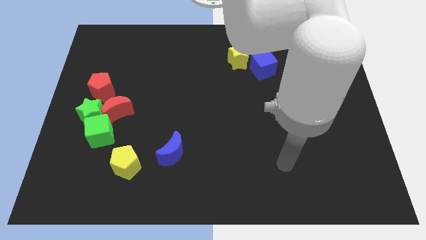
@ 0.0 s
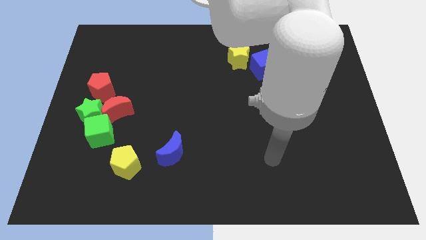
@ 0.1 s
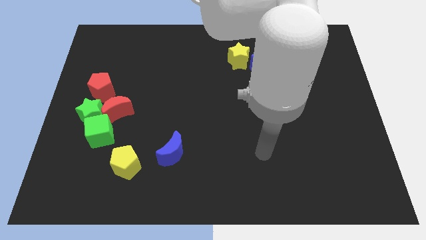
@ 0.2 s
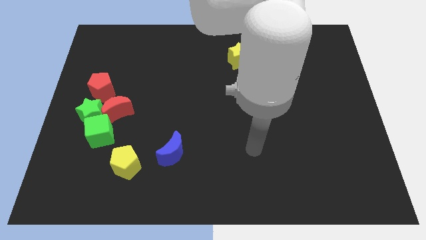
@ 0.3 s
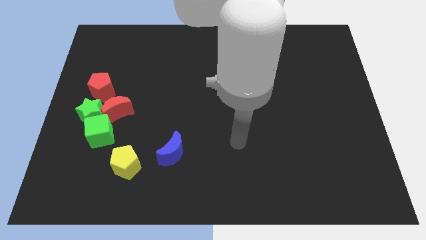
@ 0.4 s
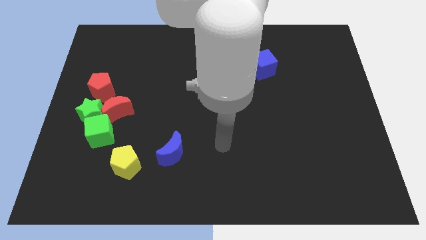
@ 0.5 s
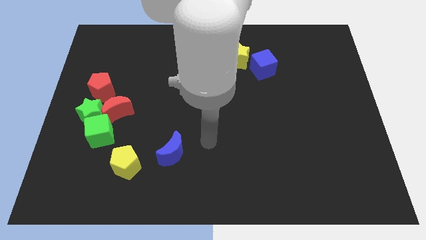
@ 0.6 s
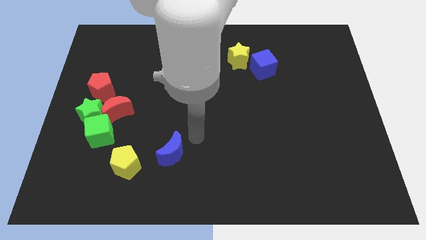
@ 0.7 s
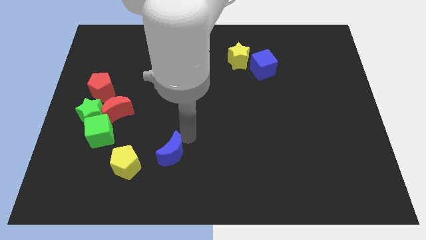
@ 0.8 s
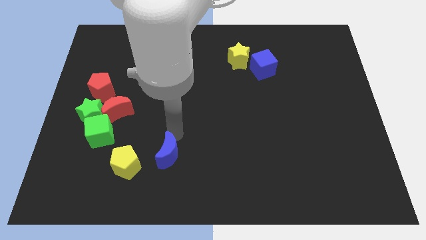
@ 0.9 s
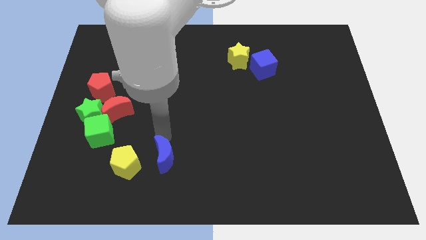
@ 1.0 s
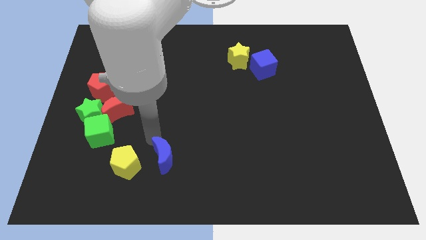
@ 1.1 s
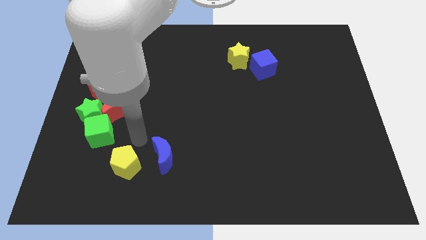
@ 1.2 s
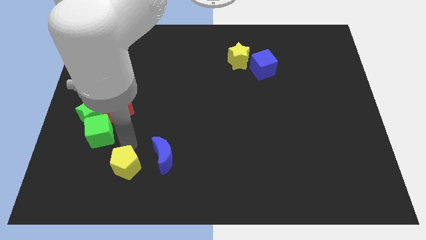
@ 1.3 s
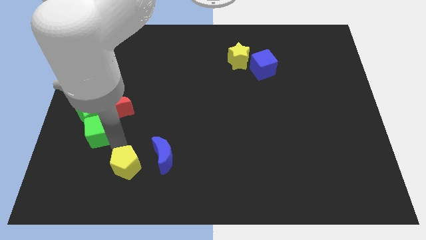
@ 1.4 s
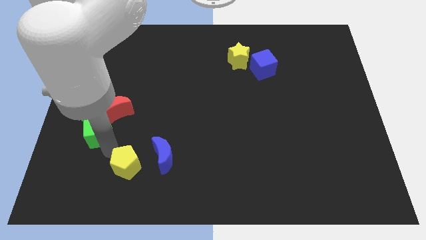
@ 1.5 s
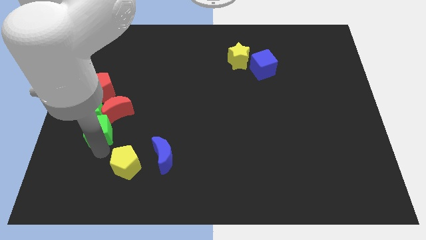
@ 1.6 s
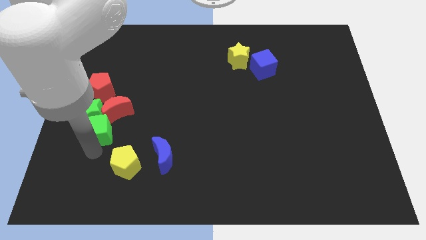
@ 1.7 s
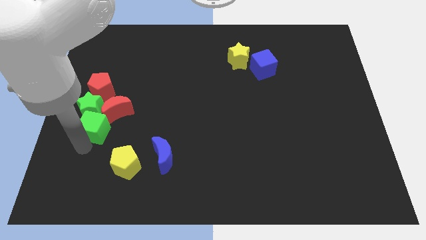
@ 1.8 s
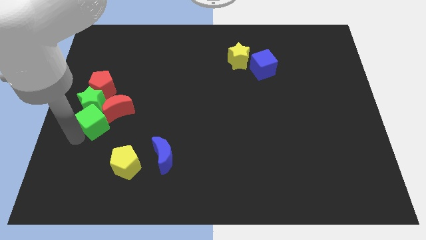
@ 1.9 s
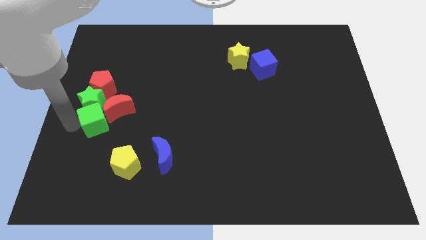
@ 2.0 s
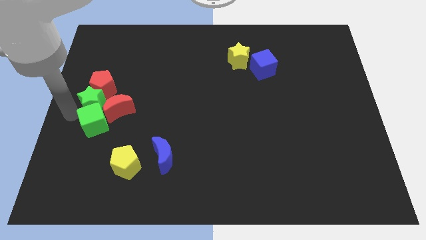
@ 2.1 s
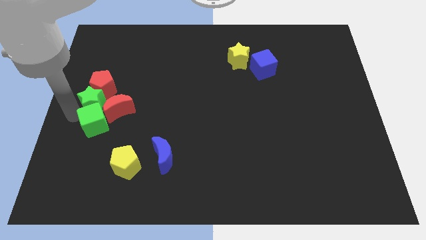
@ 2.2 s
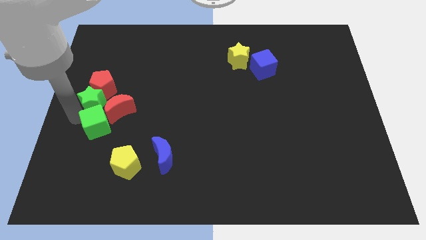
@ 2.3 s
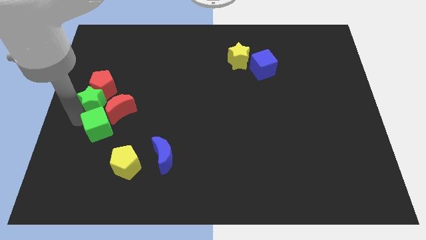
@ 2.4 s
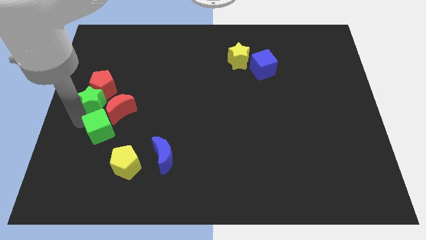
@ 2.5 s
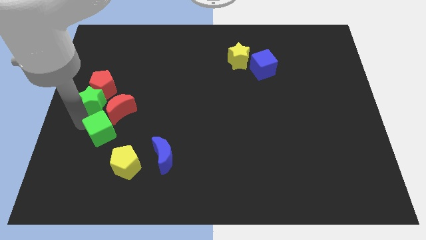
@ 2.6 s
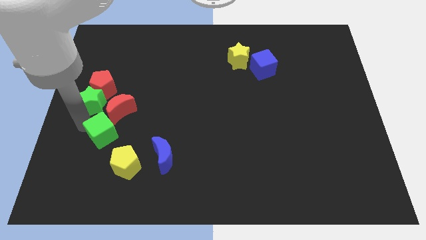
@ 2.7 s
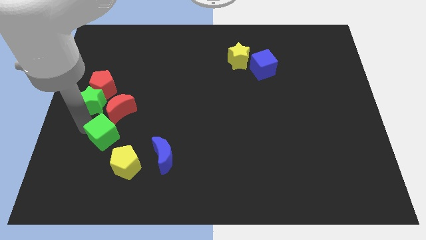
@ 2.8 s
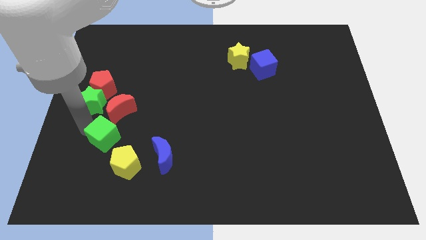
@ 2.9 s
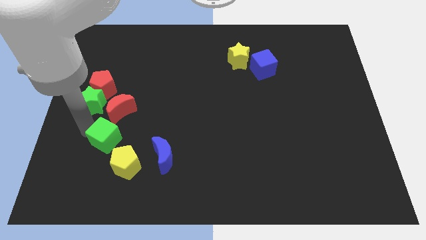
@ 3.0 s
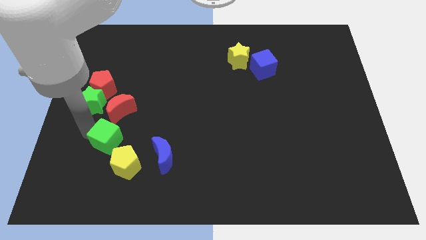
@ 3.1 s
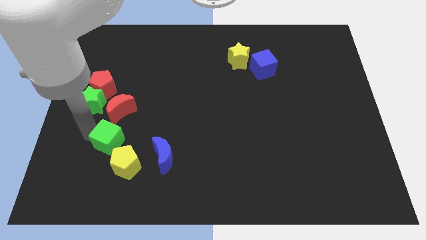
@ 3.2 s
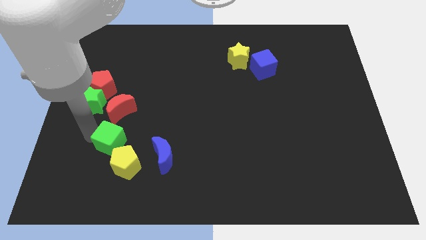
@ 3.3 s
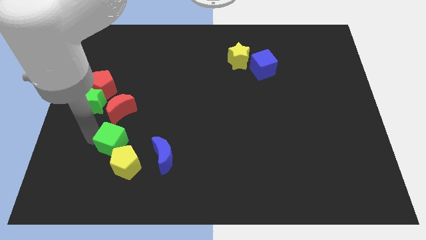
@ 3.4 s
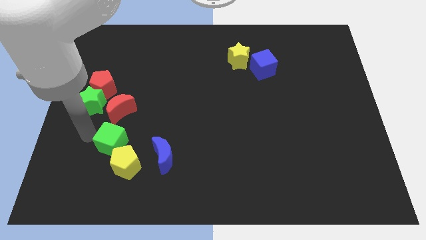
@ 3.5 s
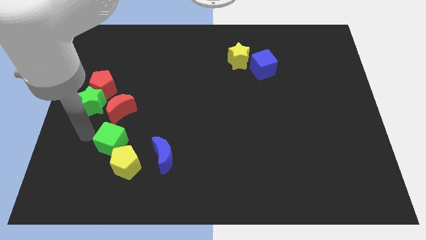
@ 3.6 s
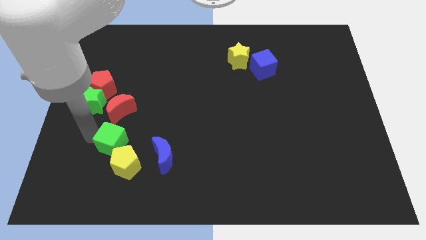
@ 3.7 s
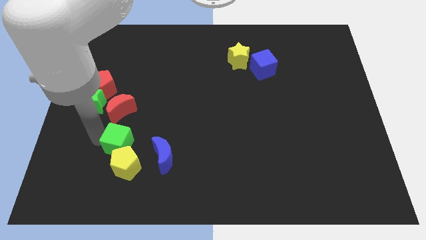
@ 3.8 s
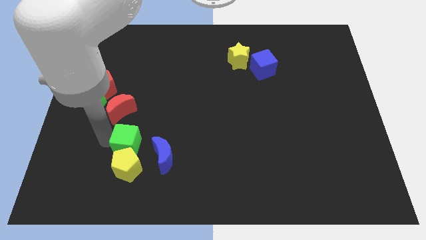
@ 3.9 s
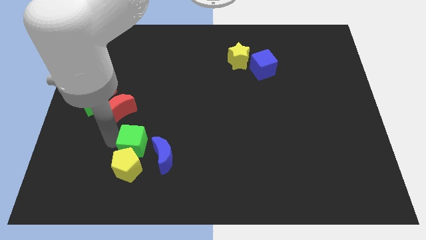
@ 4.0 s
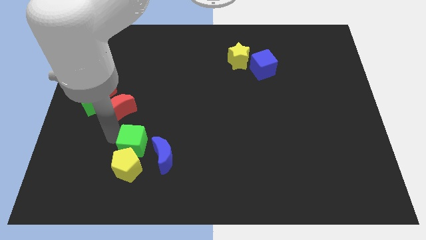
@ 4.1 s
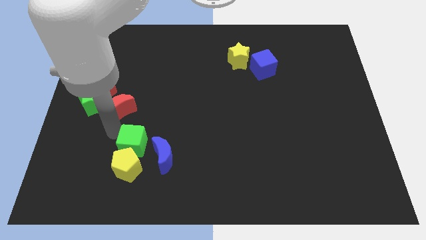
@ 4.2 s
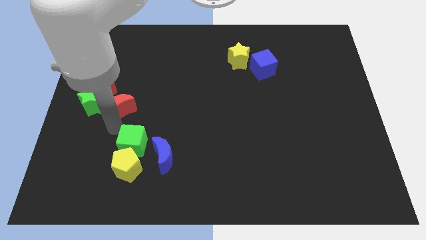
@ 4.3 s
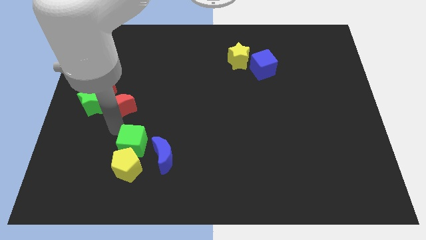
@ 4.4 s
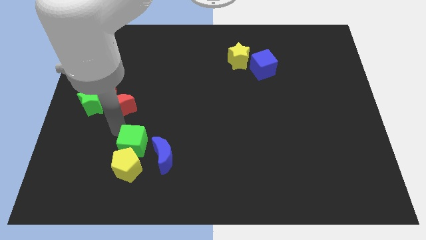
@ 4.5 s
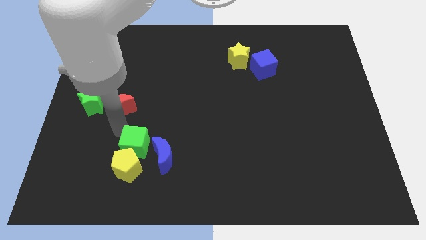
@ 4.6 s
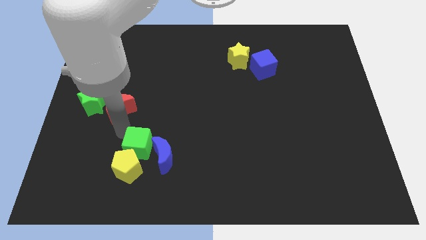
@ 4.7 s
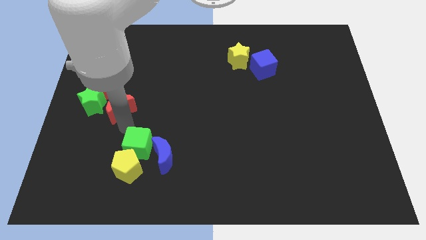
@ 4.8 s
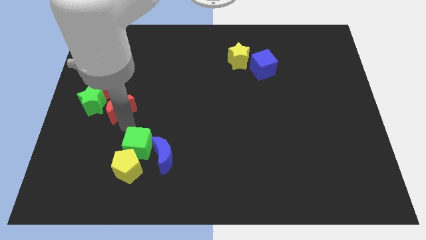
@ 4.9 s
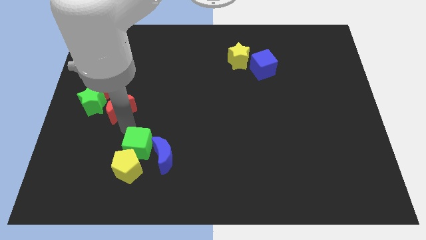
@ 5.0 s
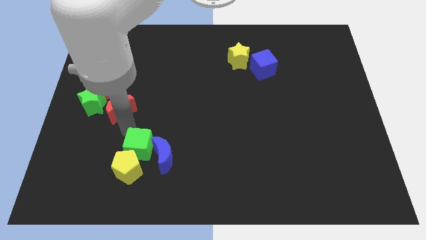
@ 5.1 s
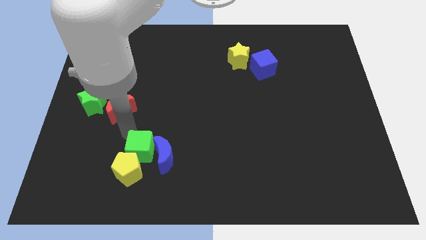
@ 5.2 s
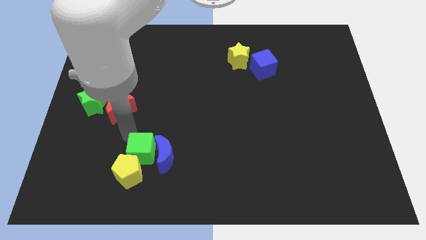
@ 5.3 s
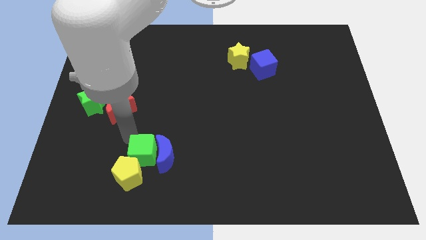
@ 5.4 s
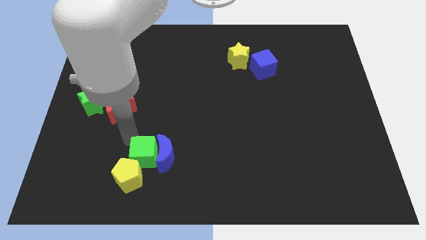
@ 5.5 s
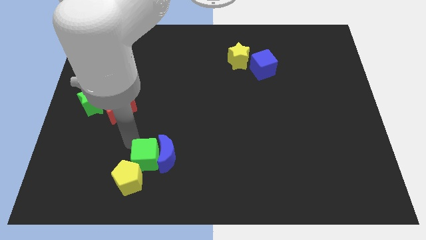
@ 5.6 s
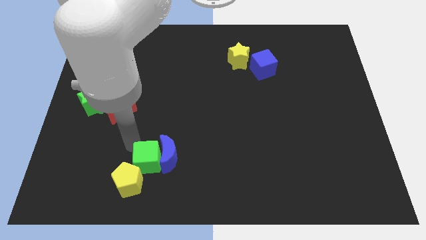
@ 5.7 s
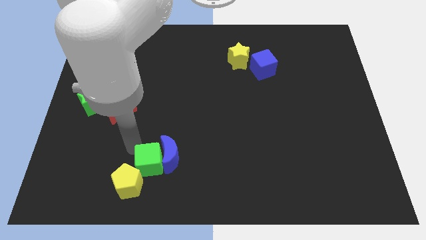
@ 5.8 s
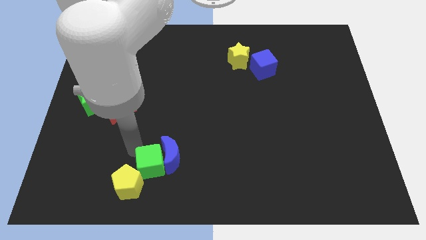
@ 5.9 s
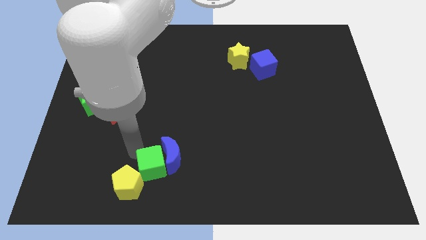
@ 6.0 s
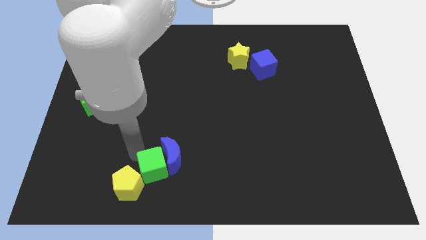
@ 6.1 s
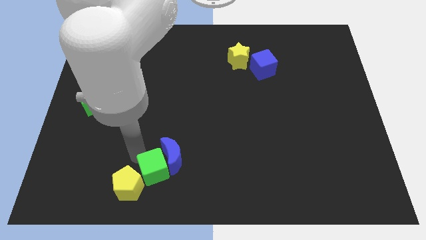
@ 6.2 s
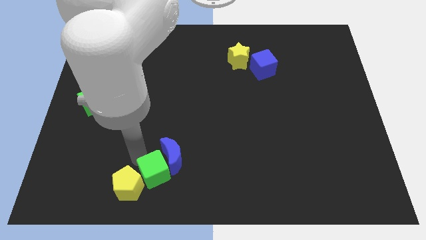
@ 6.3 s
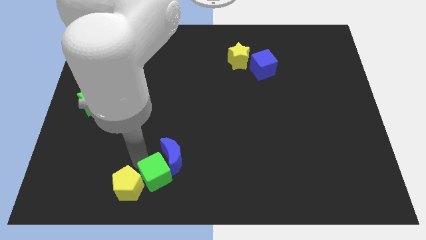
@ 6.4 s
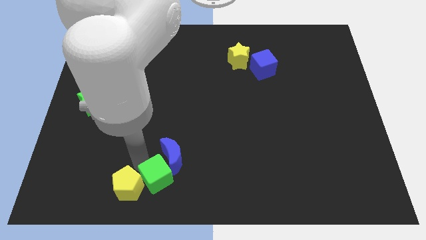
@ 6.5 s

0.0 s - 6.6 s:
move the green cube to the bottom side

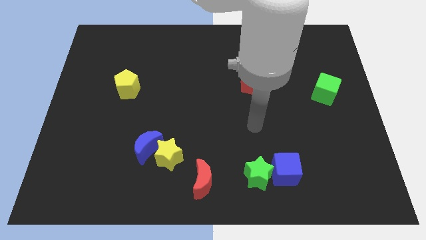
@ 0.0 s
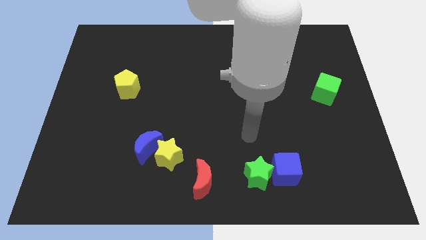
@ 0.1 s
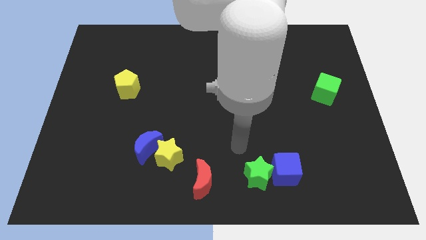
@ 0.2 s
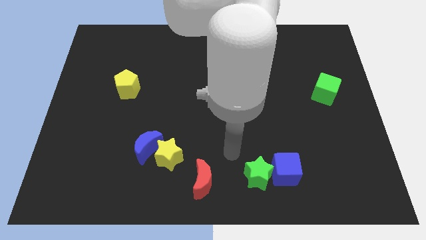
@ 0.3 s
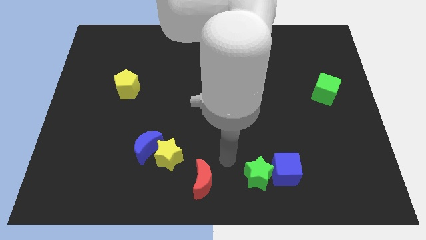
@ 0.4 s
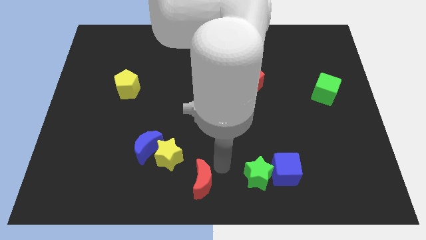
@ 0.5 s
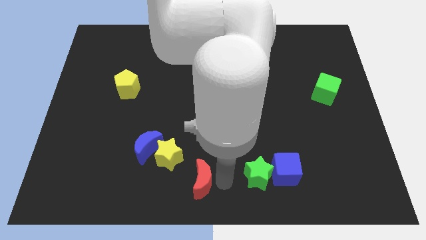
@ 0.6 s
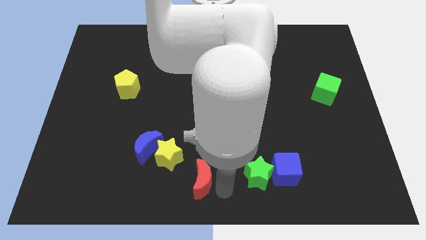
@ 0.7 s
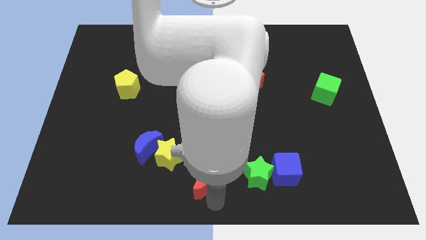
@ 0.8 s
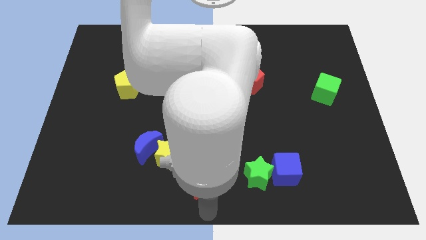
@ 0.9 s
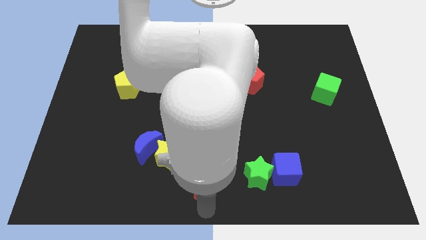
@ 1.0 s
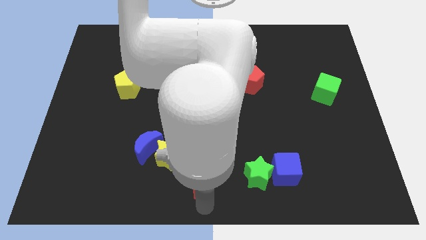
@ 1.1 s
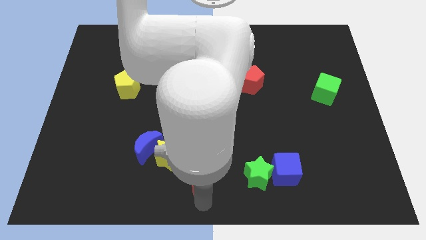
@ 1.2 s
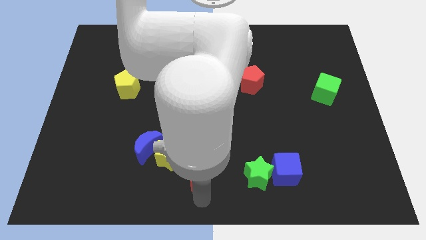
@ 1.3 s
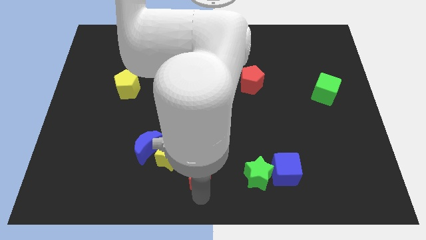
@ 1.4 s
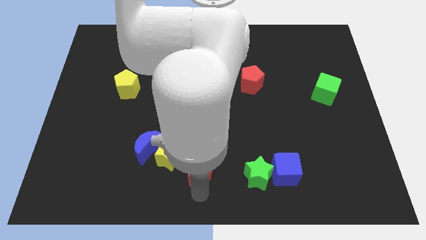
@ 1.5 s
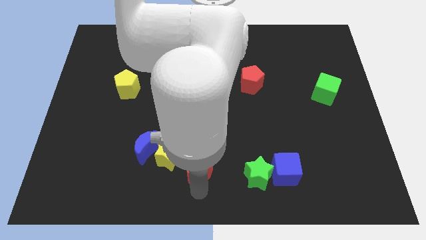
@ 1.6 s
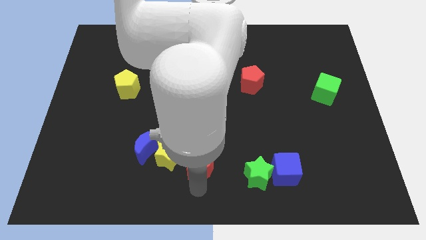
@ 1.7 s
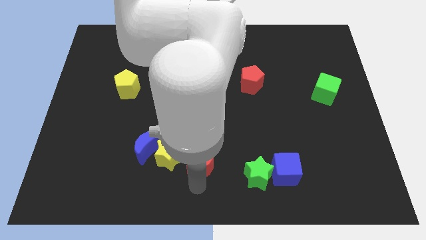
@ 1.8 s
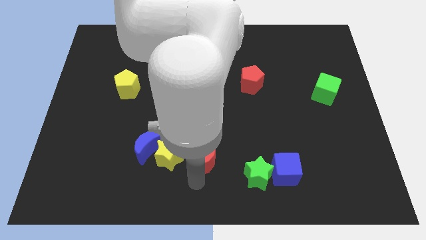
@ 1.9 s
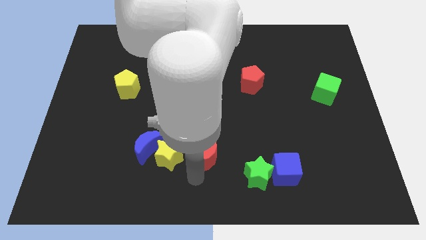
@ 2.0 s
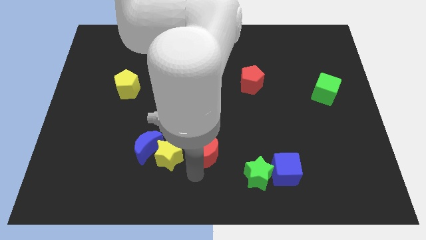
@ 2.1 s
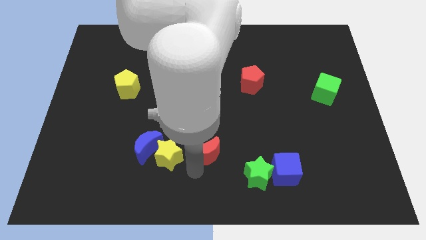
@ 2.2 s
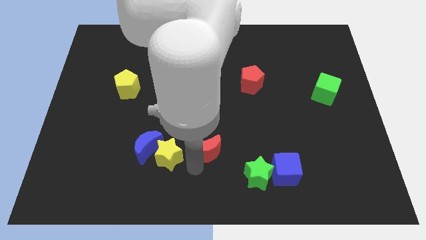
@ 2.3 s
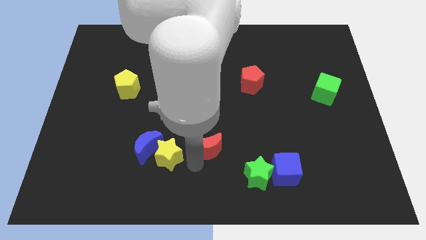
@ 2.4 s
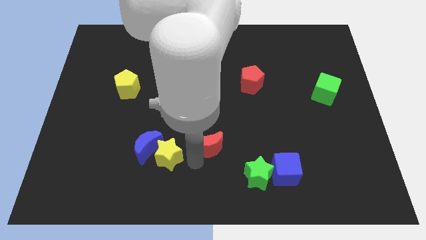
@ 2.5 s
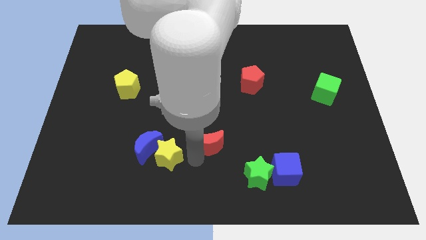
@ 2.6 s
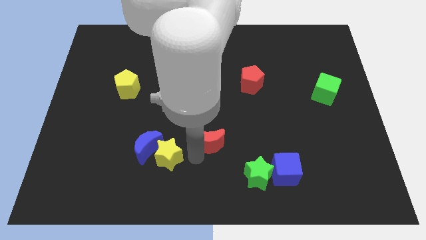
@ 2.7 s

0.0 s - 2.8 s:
slide the red moon to the middle
